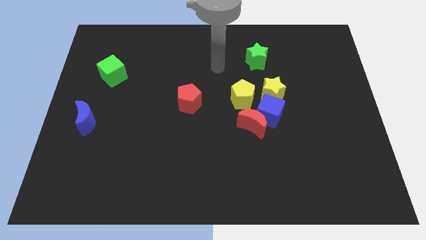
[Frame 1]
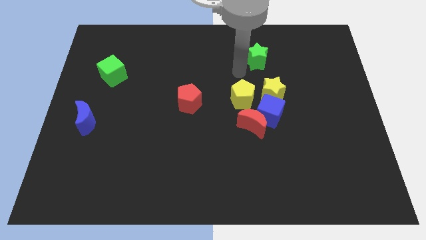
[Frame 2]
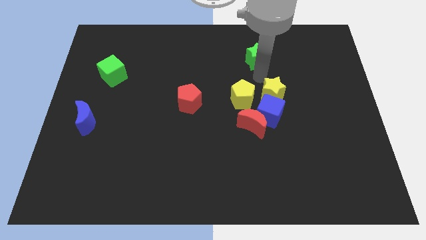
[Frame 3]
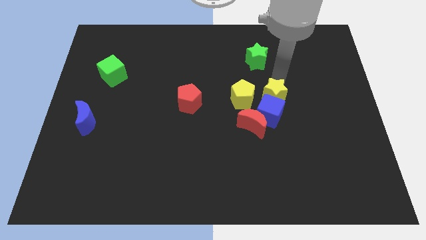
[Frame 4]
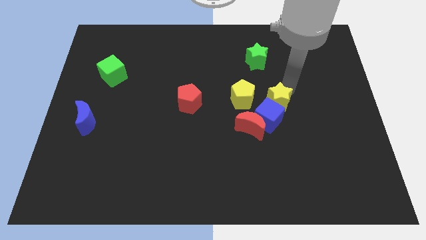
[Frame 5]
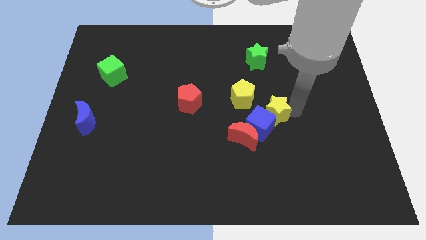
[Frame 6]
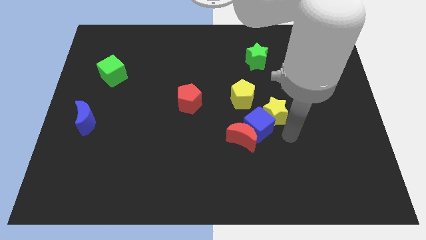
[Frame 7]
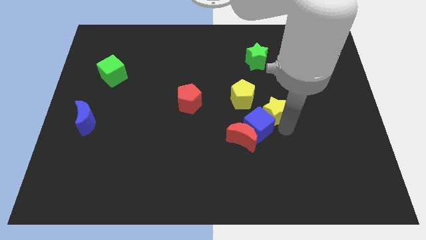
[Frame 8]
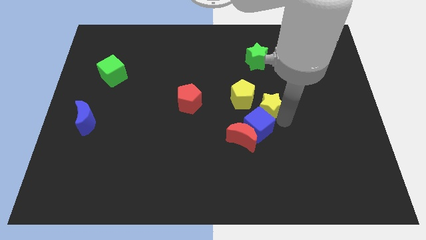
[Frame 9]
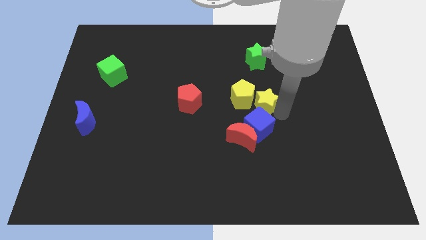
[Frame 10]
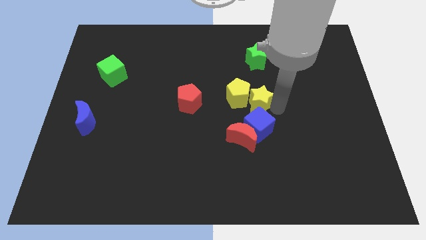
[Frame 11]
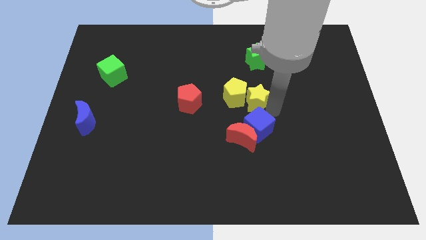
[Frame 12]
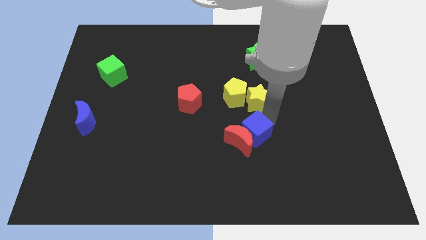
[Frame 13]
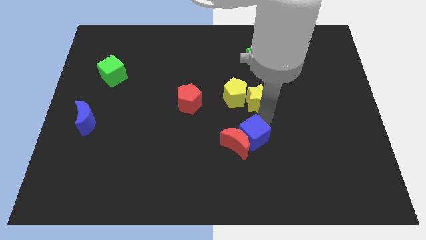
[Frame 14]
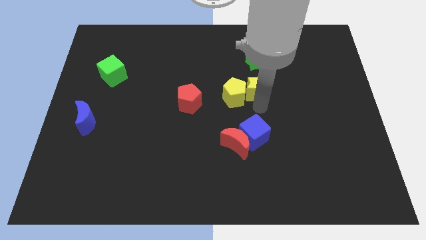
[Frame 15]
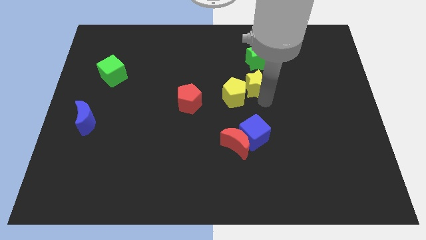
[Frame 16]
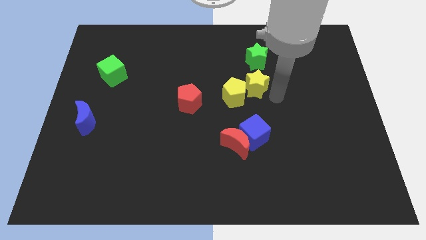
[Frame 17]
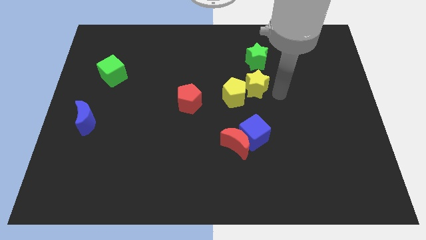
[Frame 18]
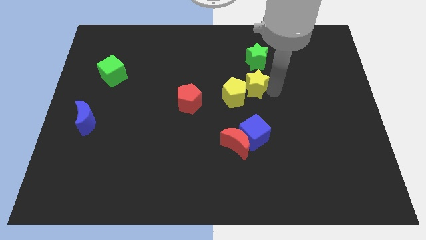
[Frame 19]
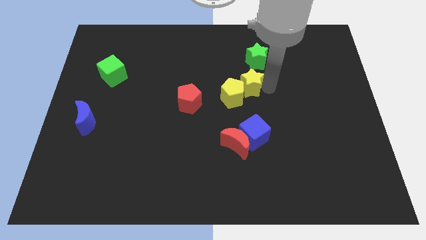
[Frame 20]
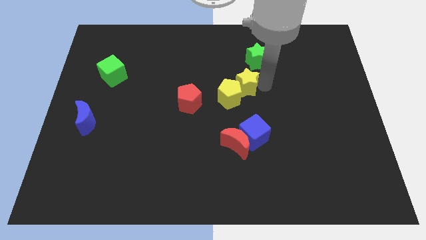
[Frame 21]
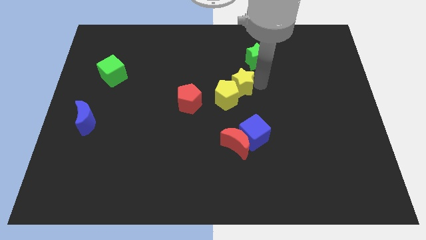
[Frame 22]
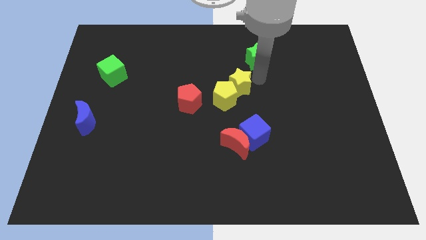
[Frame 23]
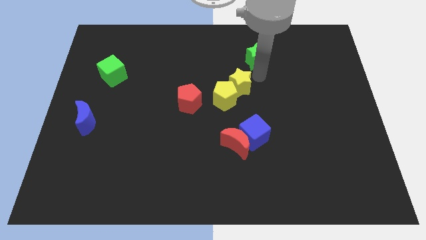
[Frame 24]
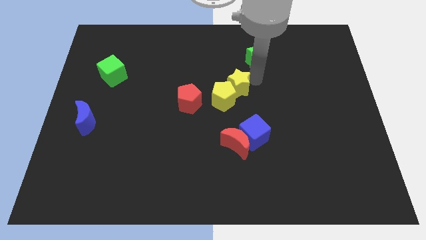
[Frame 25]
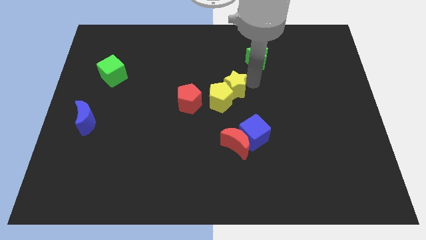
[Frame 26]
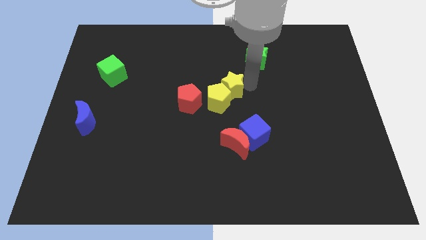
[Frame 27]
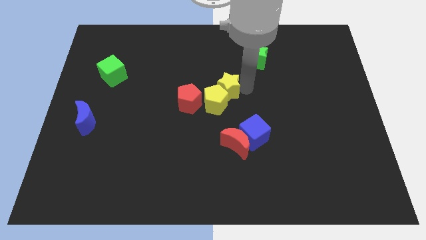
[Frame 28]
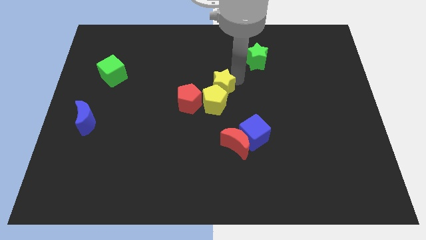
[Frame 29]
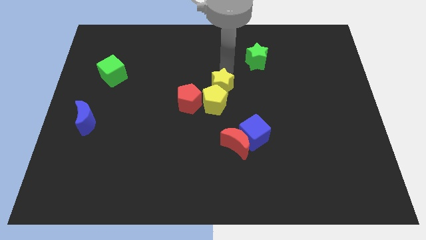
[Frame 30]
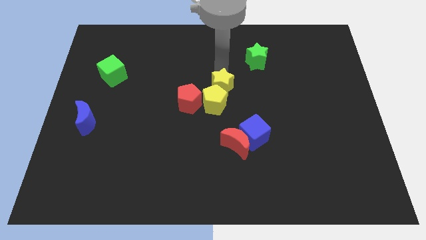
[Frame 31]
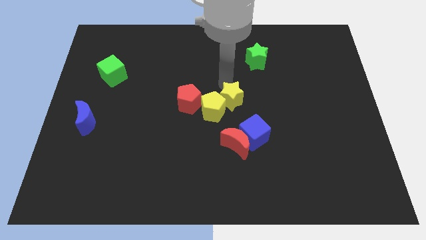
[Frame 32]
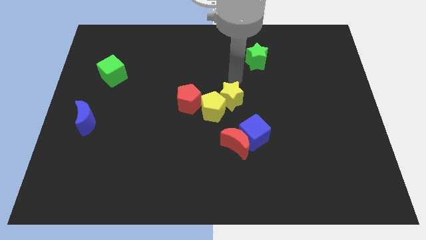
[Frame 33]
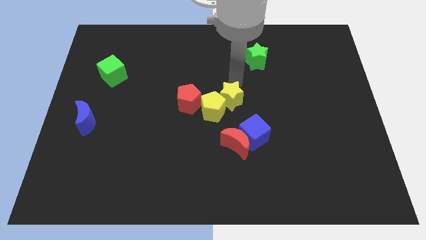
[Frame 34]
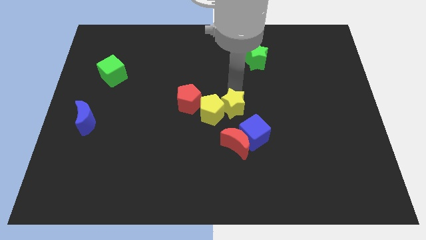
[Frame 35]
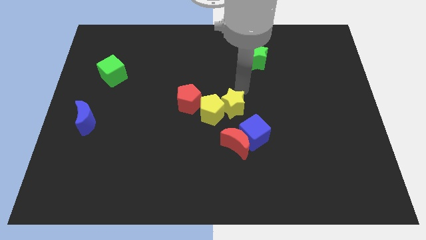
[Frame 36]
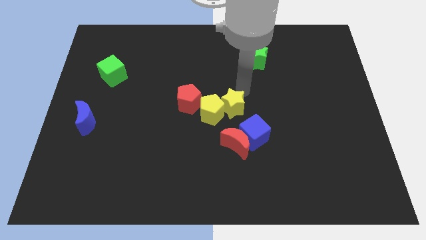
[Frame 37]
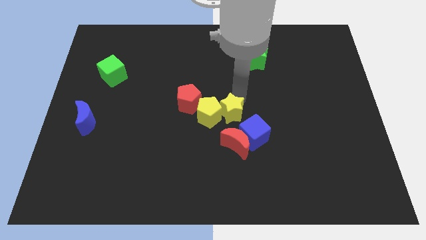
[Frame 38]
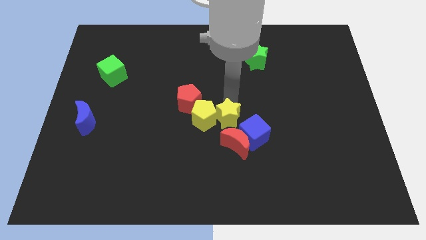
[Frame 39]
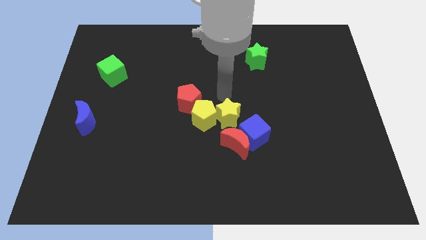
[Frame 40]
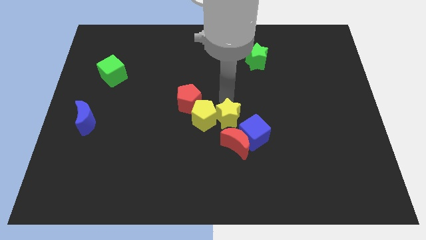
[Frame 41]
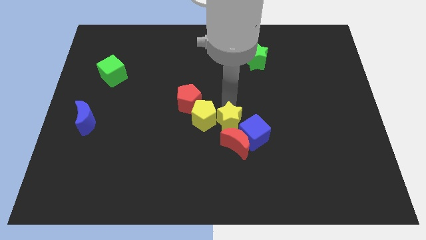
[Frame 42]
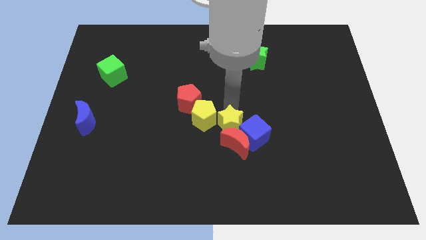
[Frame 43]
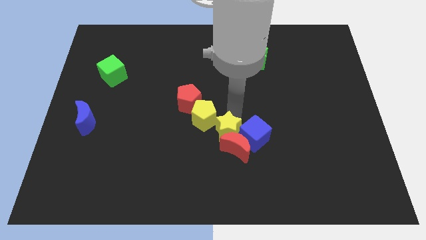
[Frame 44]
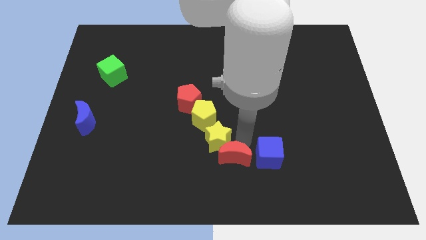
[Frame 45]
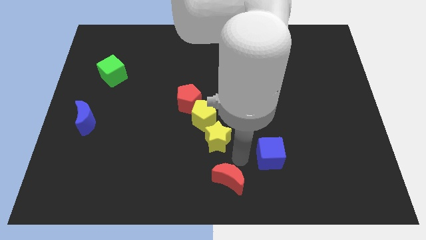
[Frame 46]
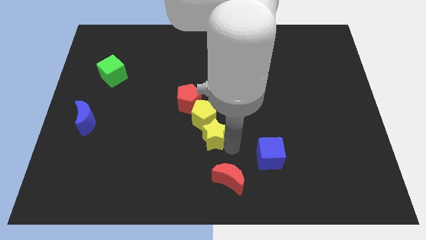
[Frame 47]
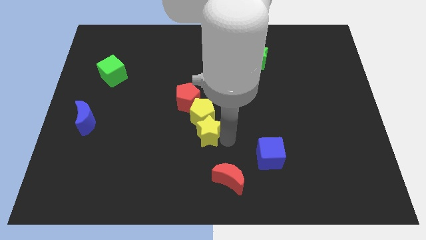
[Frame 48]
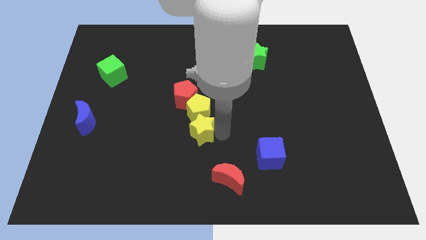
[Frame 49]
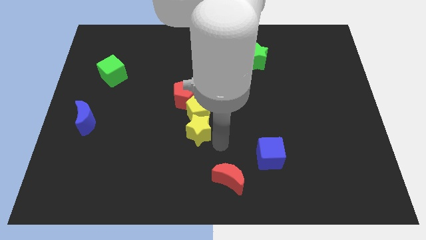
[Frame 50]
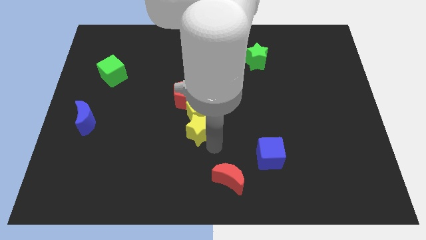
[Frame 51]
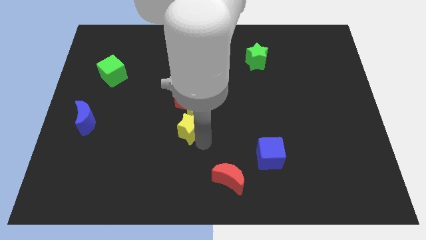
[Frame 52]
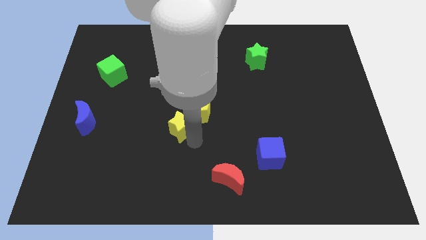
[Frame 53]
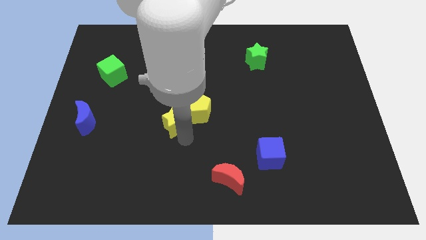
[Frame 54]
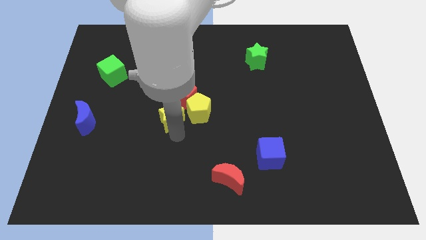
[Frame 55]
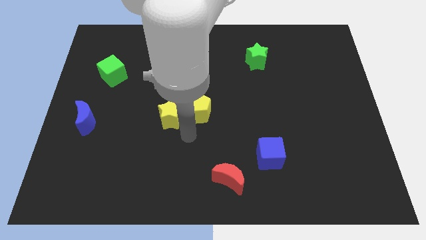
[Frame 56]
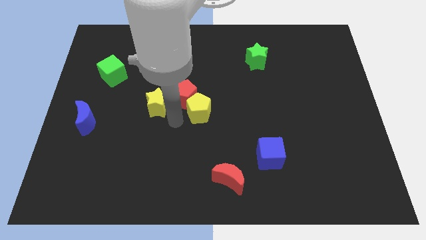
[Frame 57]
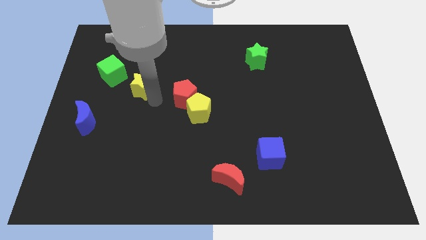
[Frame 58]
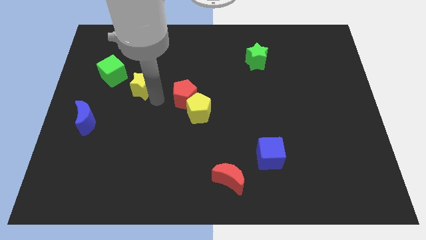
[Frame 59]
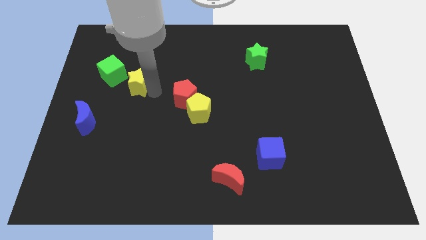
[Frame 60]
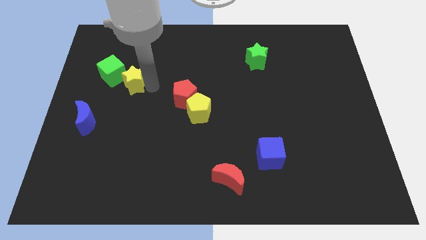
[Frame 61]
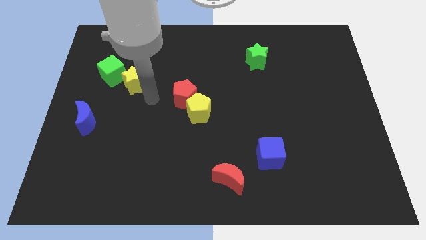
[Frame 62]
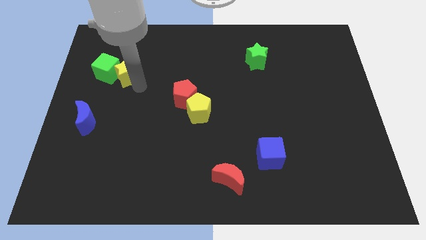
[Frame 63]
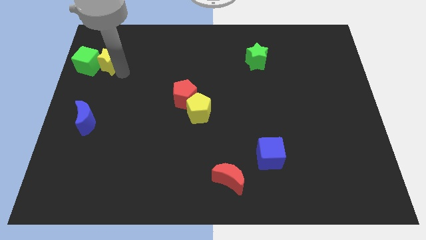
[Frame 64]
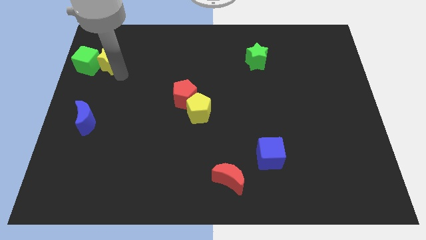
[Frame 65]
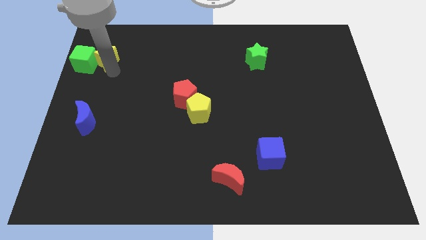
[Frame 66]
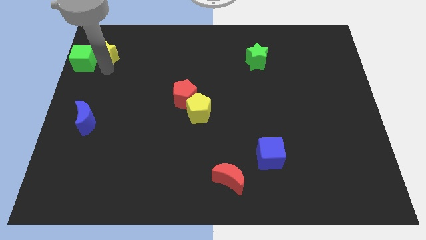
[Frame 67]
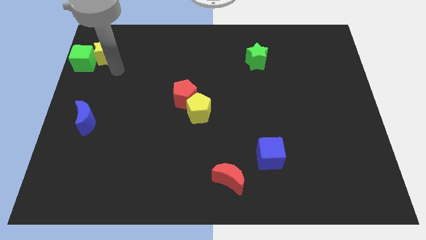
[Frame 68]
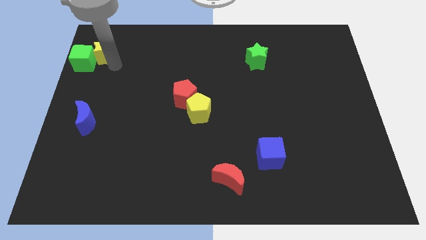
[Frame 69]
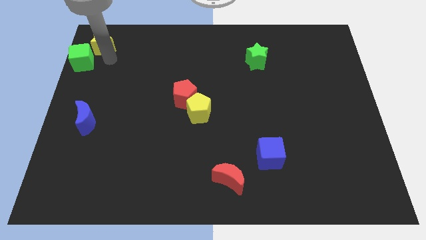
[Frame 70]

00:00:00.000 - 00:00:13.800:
put the yellow star to the upper left corner
